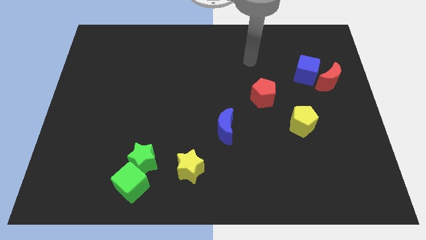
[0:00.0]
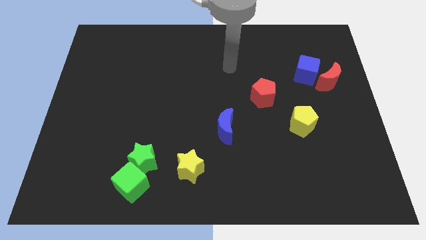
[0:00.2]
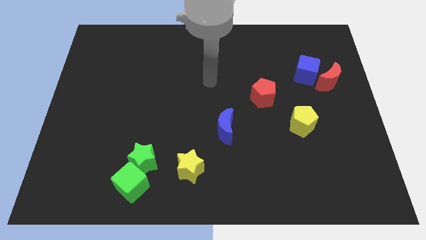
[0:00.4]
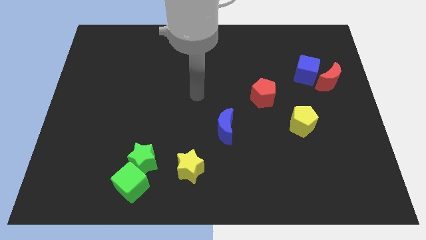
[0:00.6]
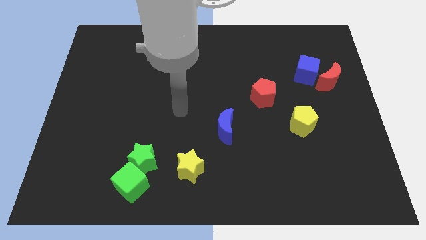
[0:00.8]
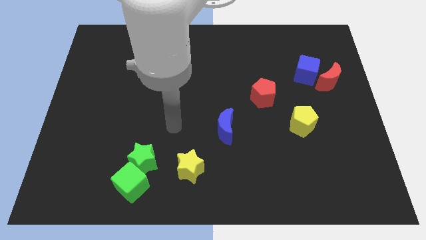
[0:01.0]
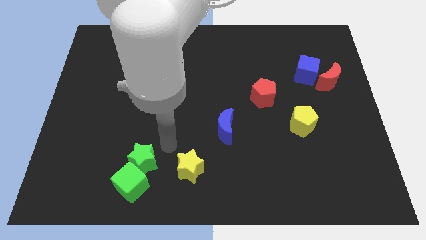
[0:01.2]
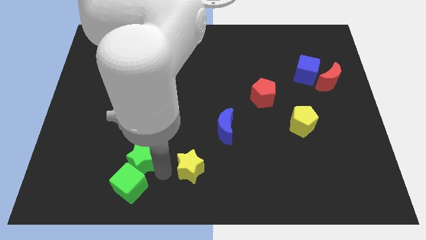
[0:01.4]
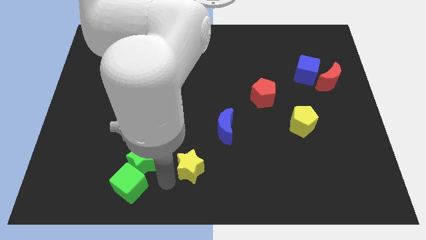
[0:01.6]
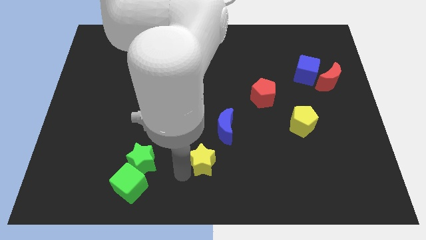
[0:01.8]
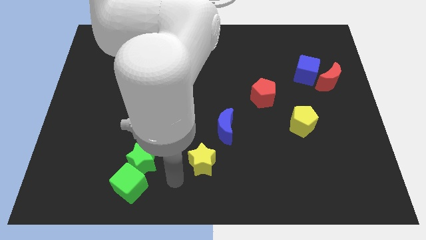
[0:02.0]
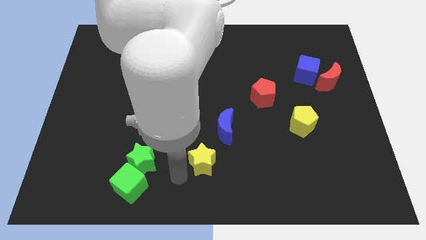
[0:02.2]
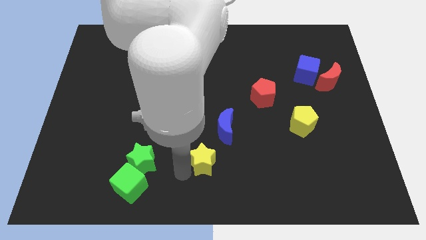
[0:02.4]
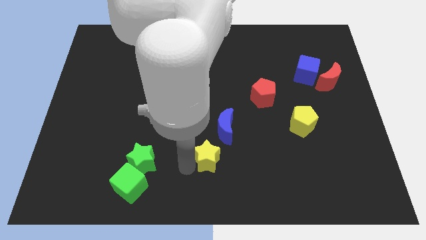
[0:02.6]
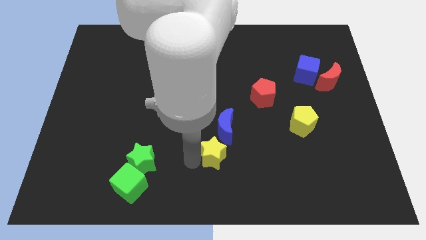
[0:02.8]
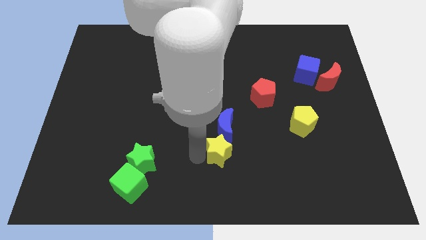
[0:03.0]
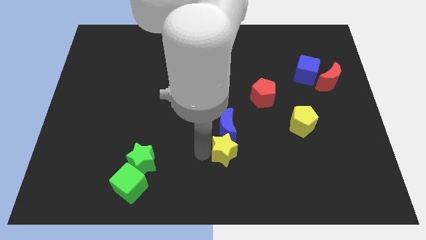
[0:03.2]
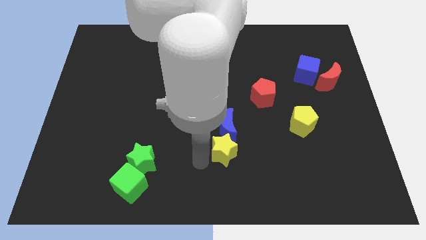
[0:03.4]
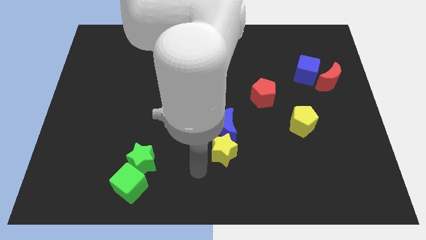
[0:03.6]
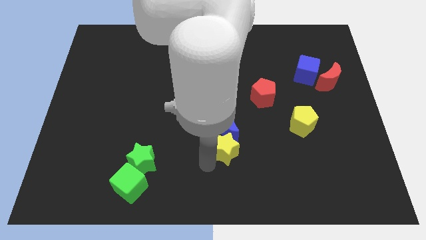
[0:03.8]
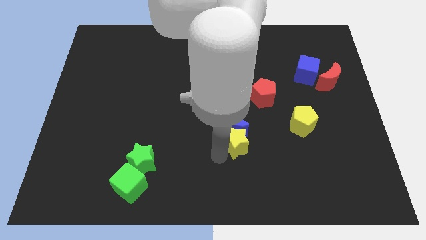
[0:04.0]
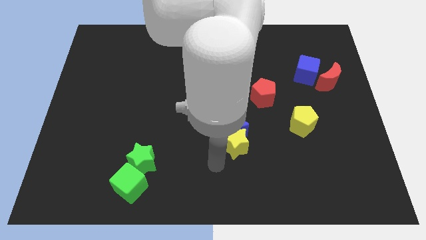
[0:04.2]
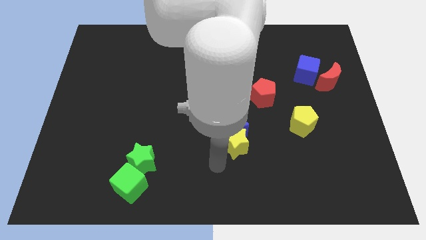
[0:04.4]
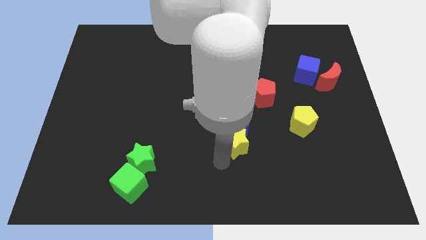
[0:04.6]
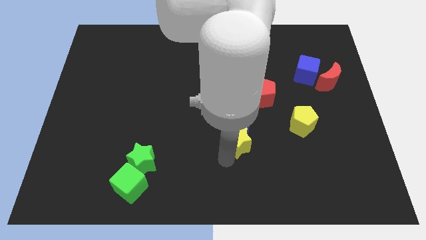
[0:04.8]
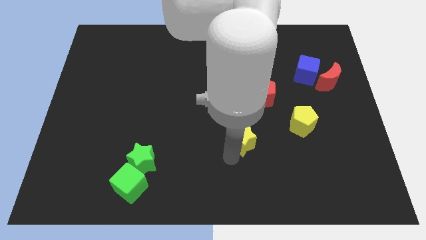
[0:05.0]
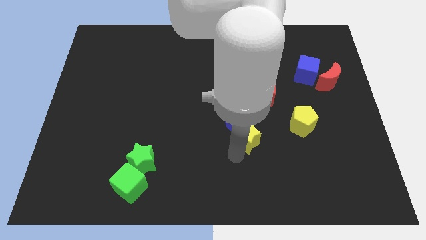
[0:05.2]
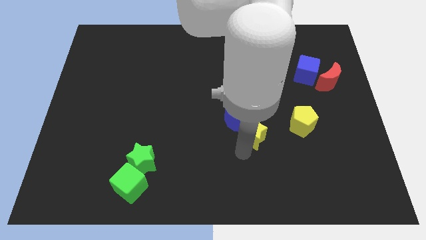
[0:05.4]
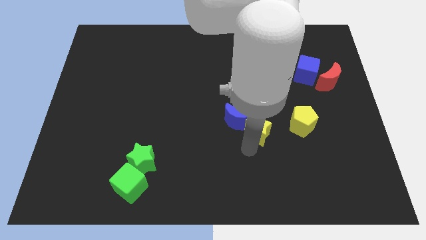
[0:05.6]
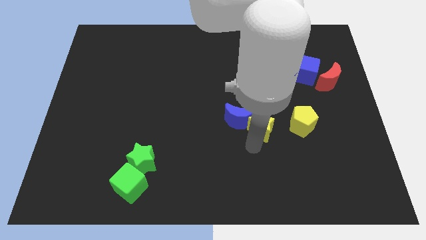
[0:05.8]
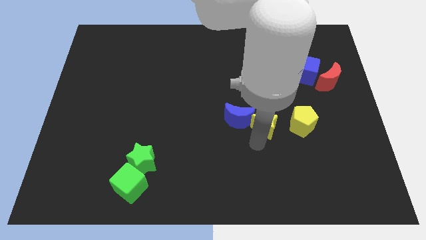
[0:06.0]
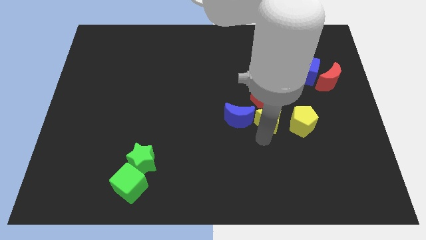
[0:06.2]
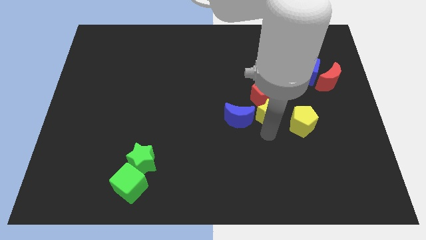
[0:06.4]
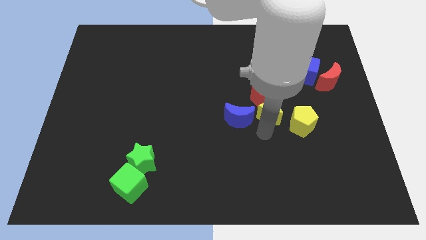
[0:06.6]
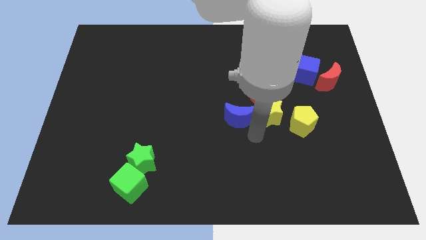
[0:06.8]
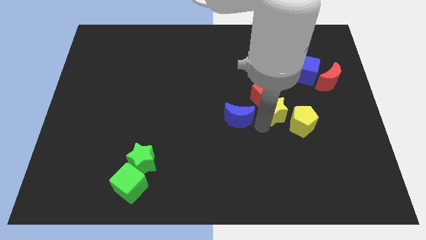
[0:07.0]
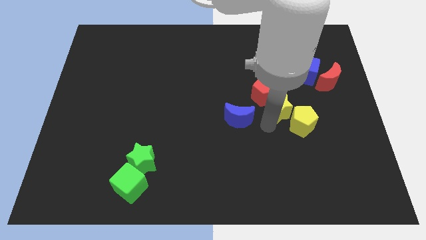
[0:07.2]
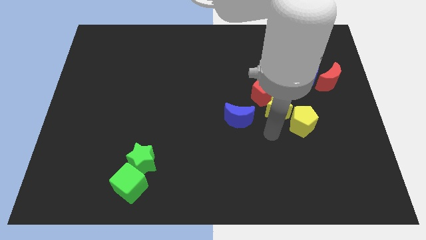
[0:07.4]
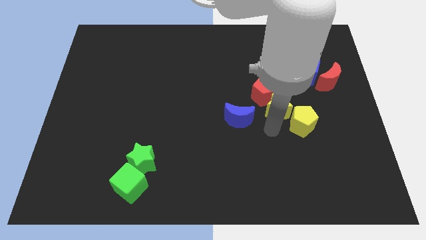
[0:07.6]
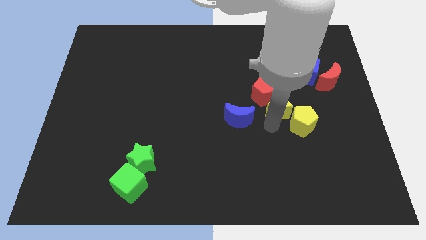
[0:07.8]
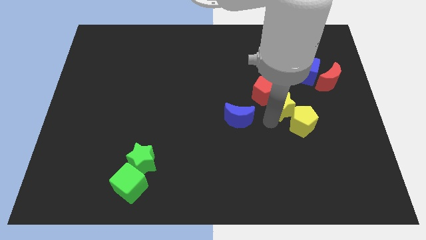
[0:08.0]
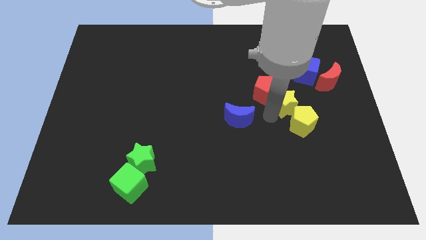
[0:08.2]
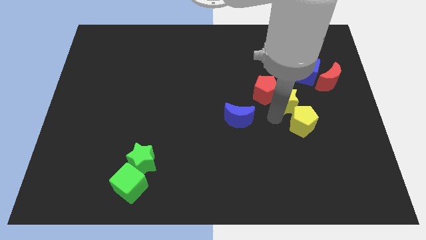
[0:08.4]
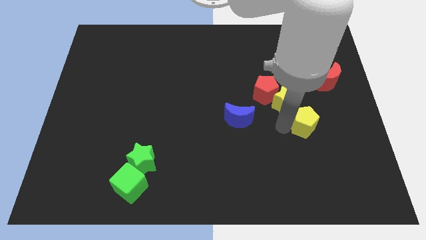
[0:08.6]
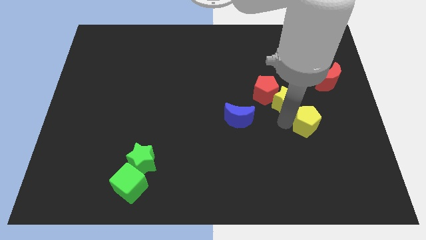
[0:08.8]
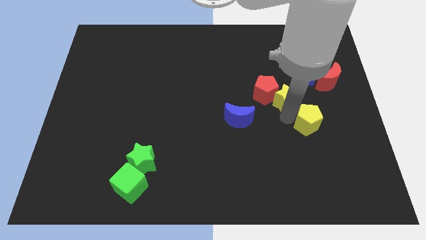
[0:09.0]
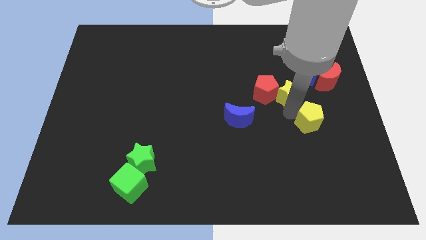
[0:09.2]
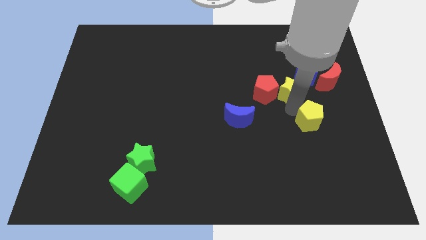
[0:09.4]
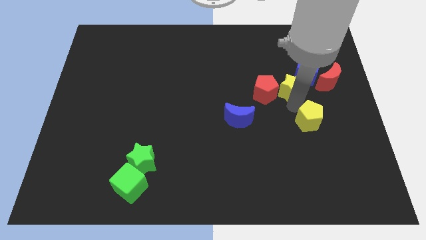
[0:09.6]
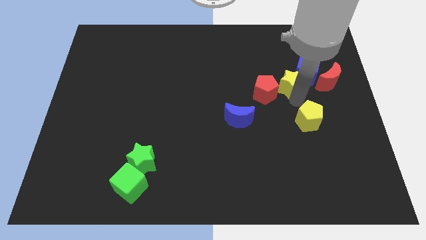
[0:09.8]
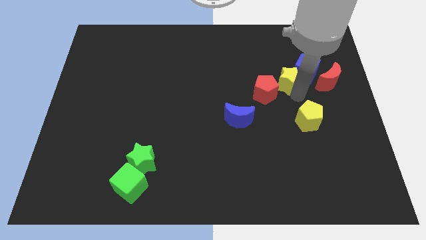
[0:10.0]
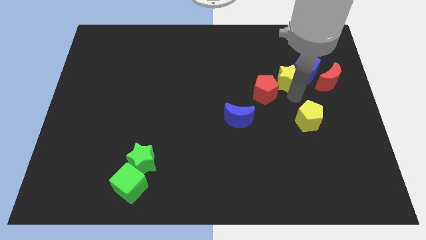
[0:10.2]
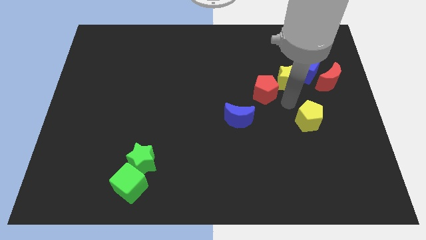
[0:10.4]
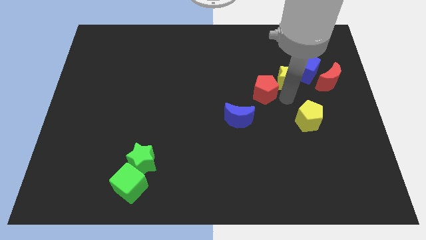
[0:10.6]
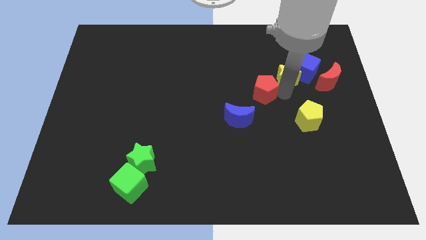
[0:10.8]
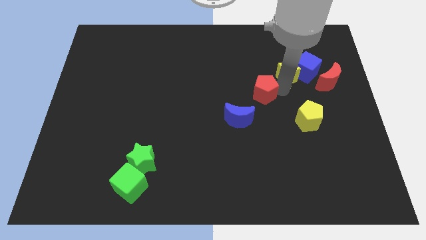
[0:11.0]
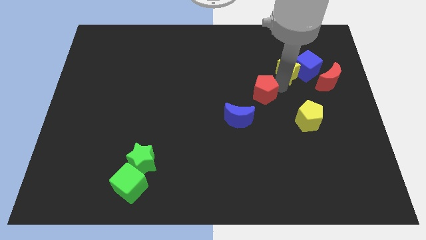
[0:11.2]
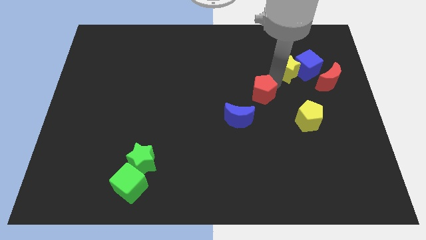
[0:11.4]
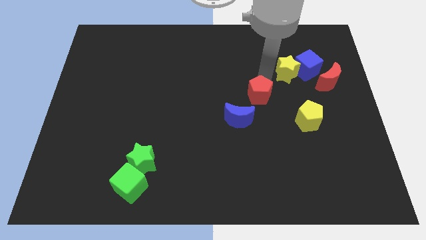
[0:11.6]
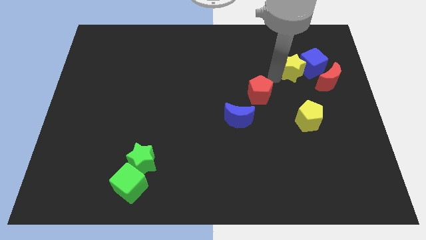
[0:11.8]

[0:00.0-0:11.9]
move the yellow star to the top left side of the red moon
